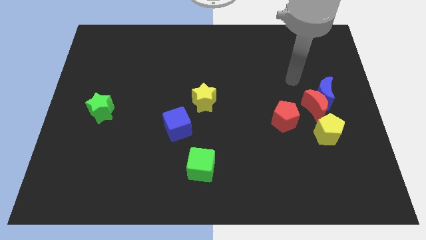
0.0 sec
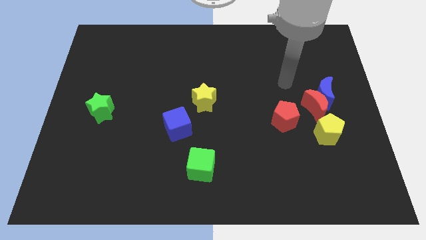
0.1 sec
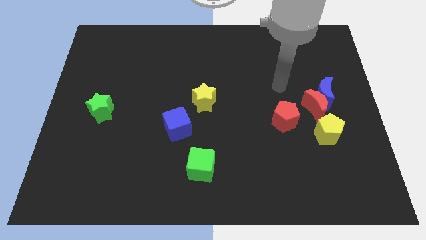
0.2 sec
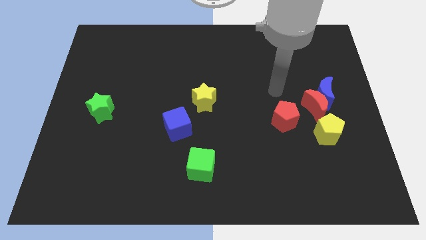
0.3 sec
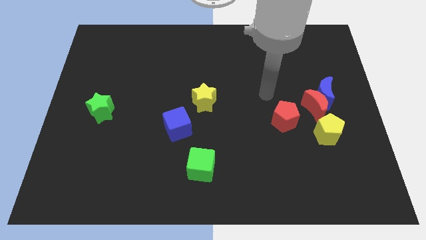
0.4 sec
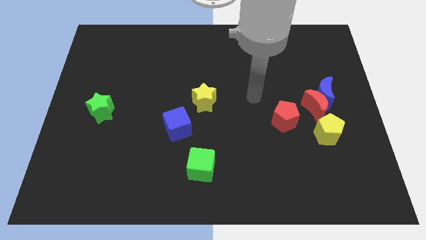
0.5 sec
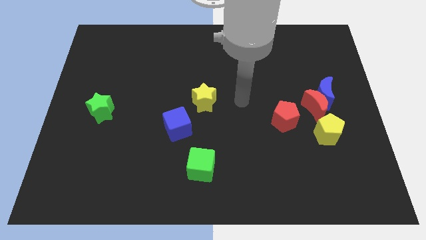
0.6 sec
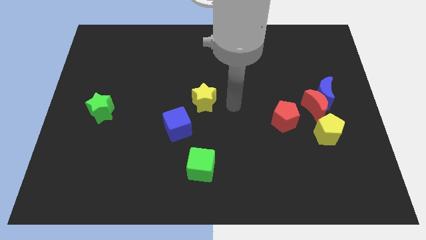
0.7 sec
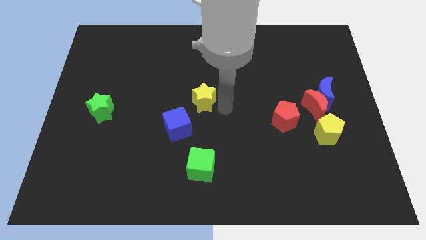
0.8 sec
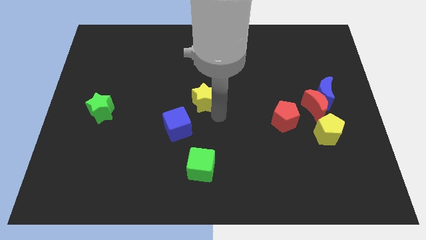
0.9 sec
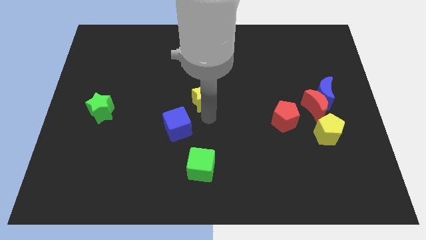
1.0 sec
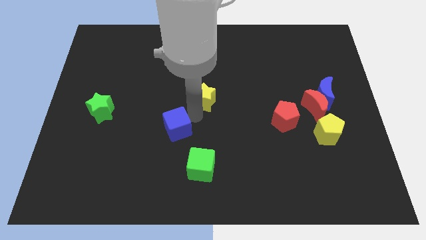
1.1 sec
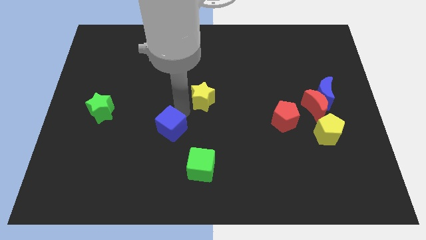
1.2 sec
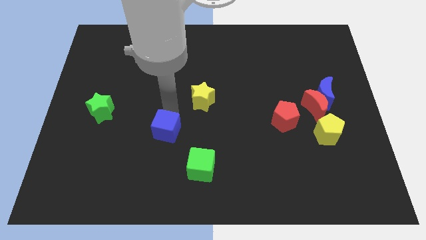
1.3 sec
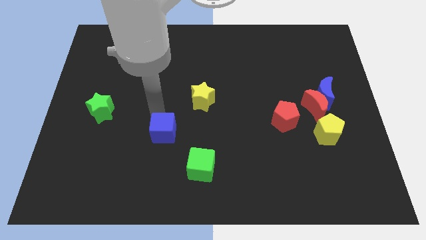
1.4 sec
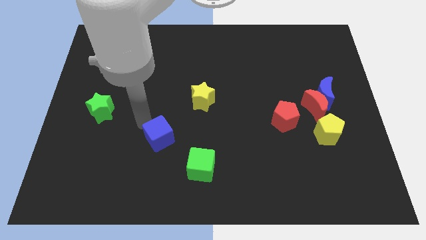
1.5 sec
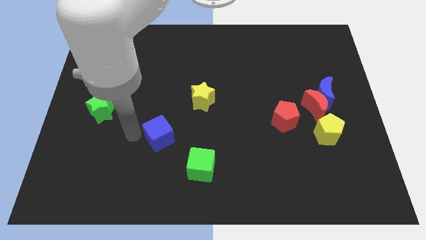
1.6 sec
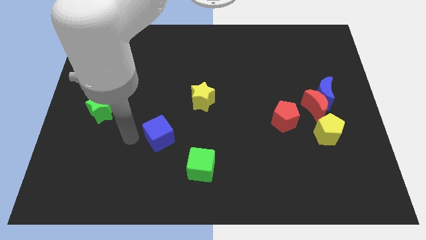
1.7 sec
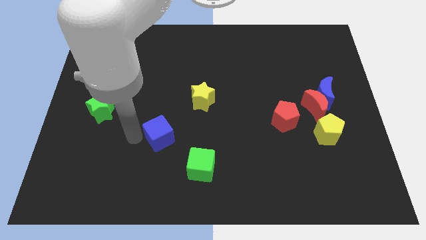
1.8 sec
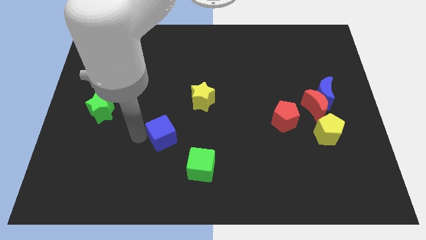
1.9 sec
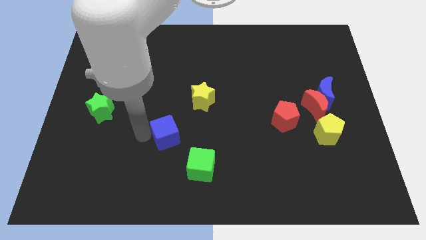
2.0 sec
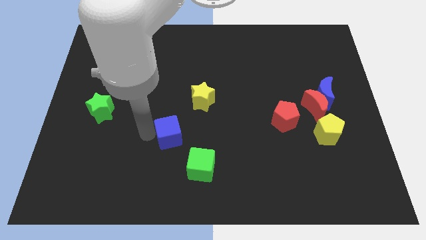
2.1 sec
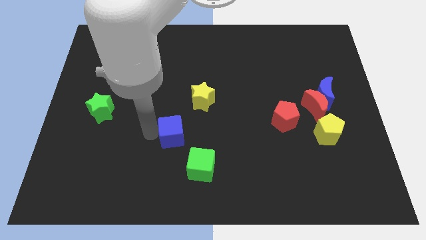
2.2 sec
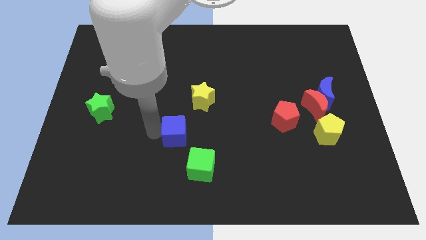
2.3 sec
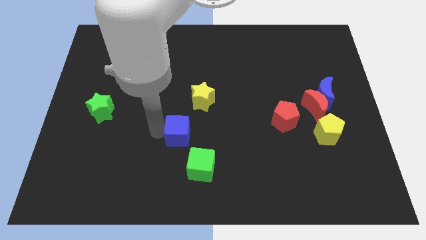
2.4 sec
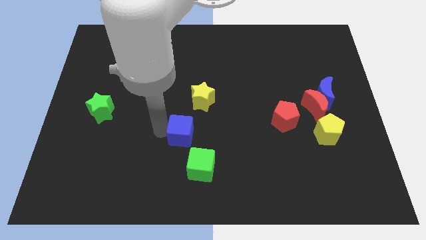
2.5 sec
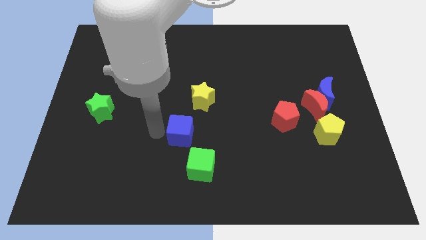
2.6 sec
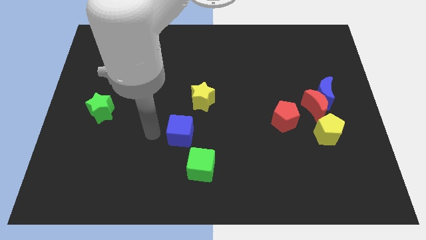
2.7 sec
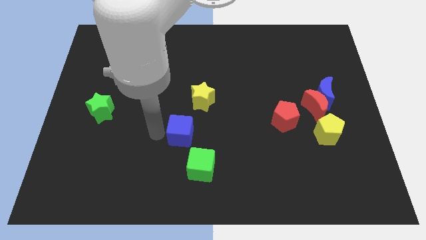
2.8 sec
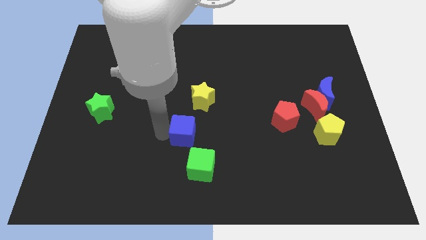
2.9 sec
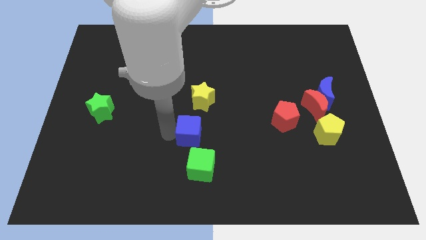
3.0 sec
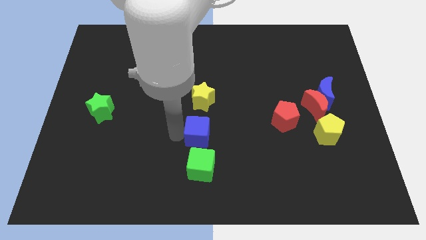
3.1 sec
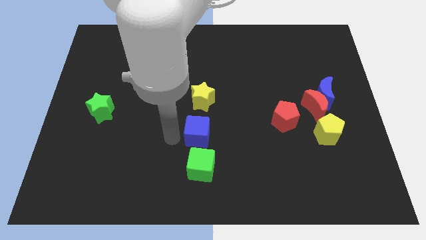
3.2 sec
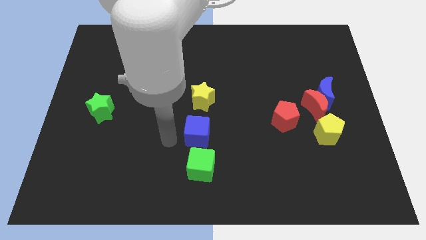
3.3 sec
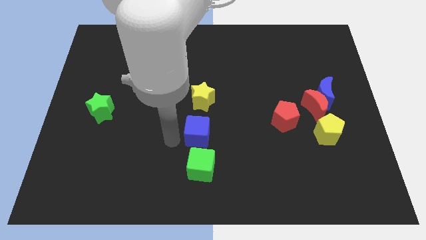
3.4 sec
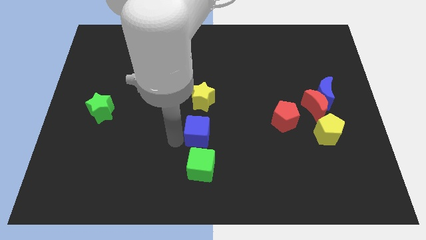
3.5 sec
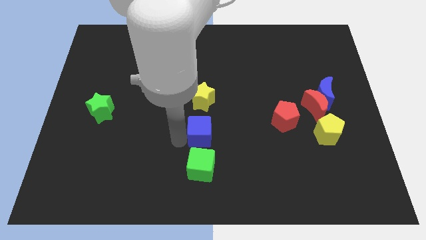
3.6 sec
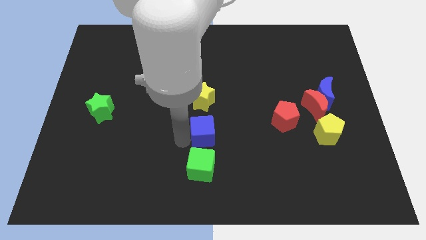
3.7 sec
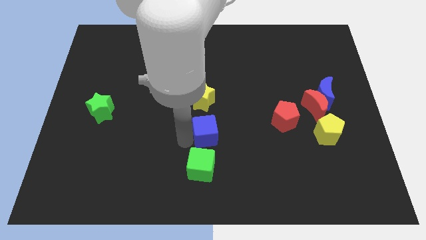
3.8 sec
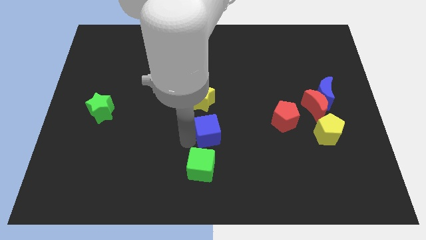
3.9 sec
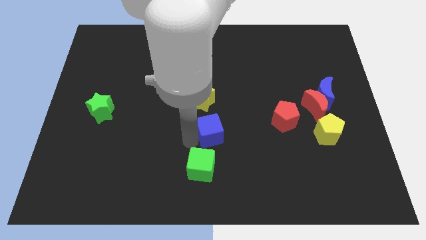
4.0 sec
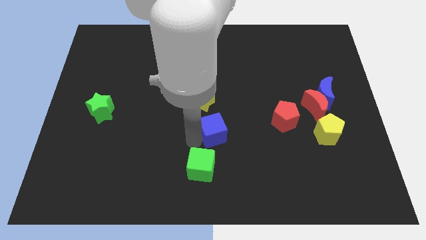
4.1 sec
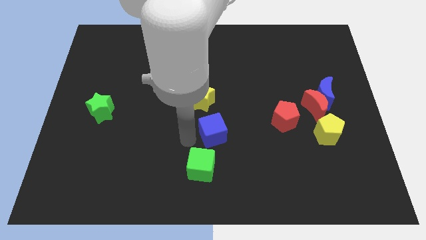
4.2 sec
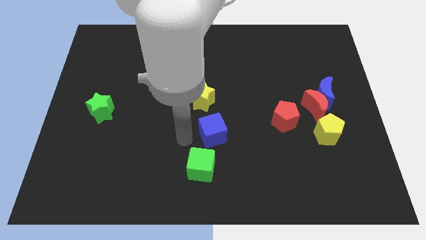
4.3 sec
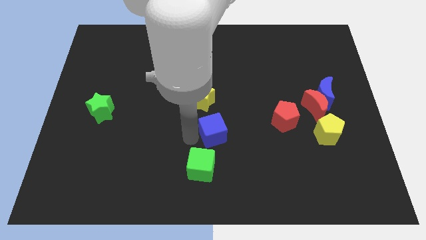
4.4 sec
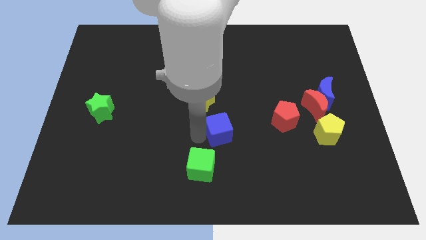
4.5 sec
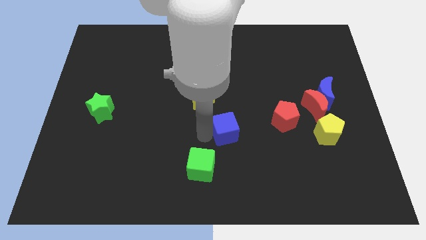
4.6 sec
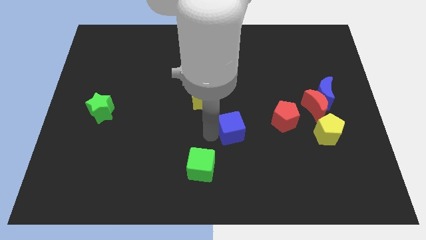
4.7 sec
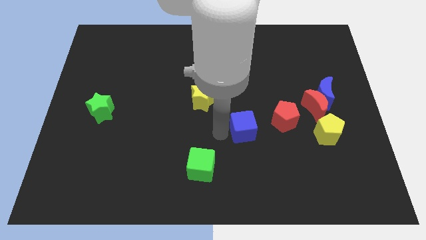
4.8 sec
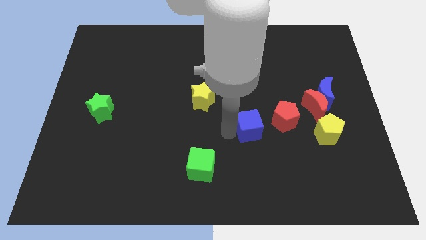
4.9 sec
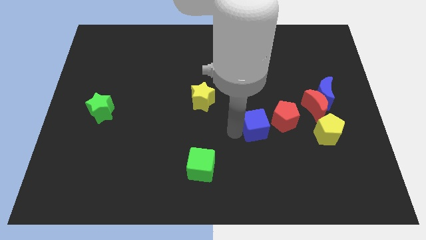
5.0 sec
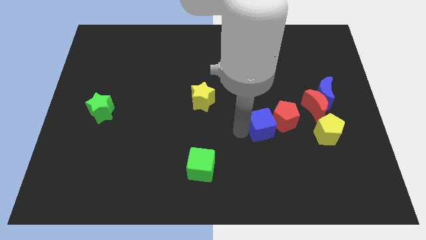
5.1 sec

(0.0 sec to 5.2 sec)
put the blue cube next to the red pentagon

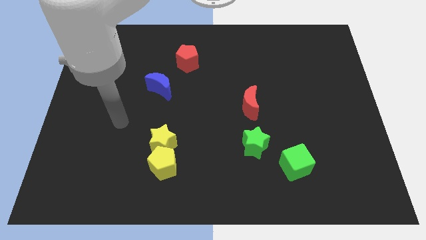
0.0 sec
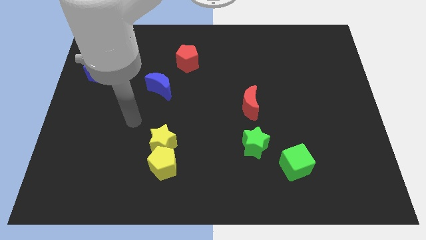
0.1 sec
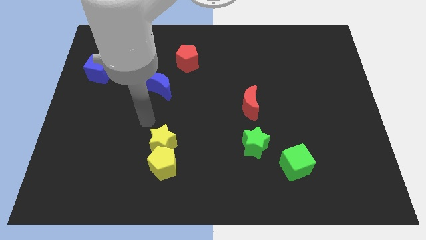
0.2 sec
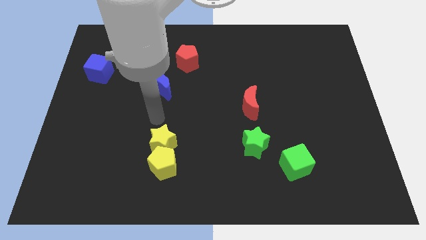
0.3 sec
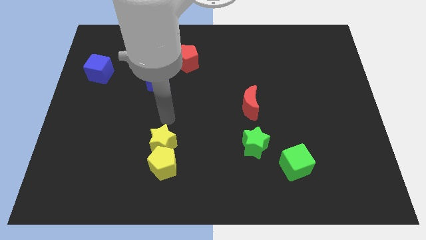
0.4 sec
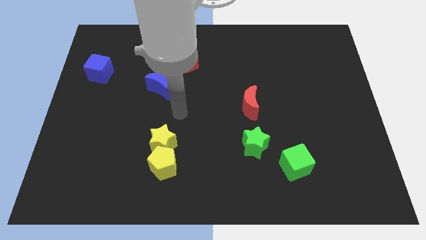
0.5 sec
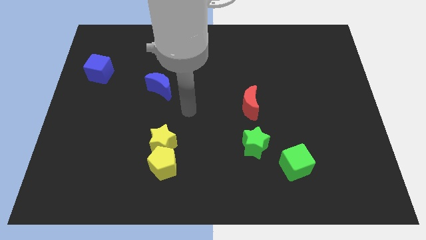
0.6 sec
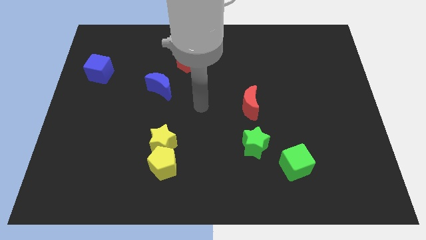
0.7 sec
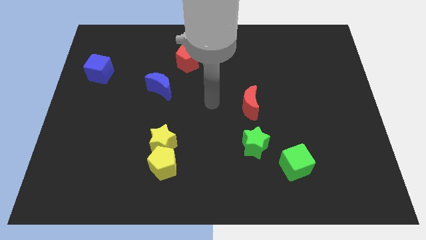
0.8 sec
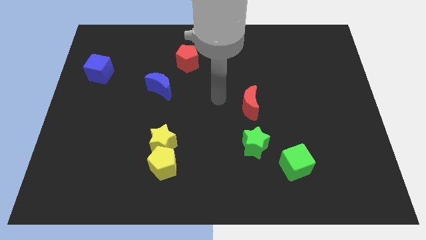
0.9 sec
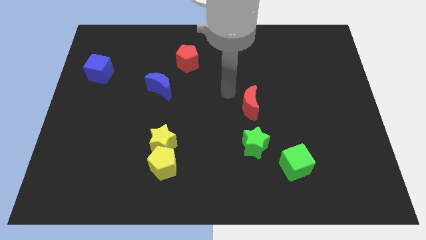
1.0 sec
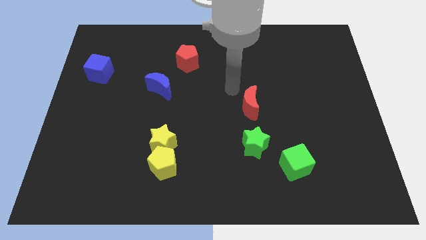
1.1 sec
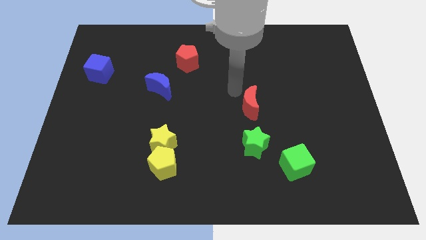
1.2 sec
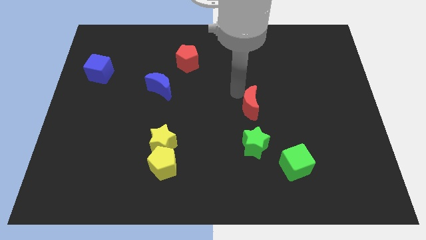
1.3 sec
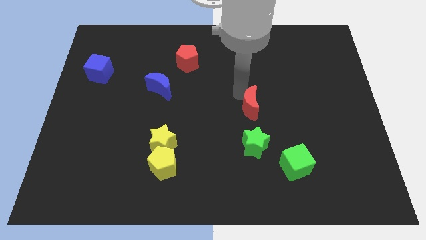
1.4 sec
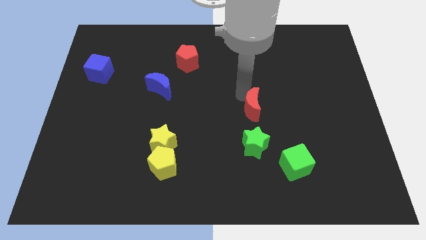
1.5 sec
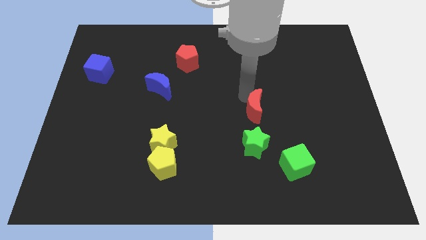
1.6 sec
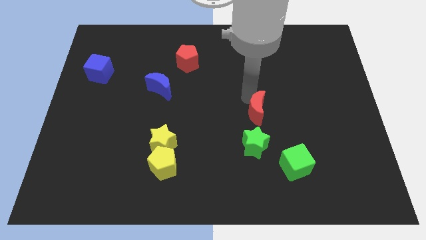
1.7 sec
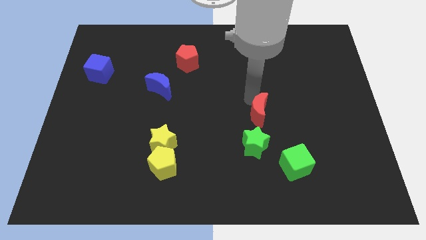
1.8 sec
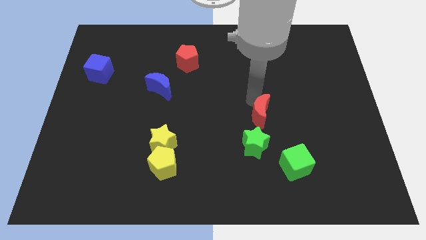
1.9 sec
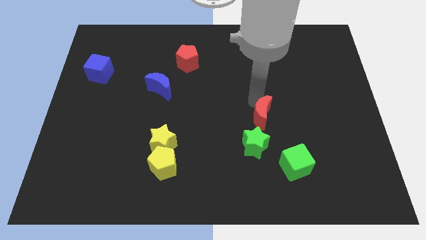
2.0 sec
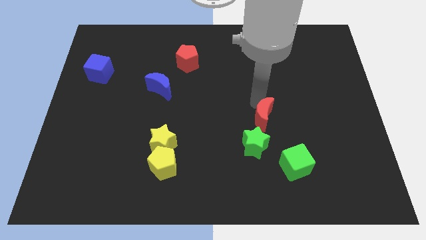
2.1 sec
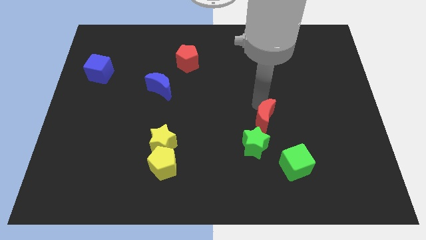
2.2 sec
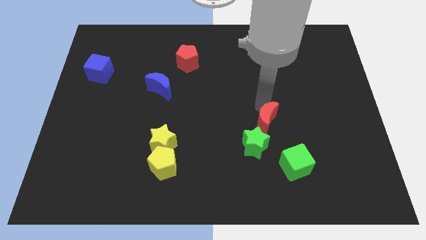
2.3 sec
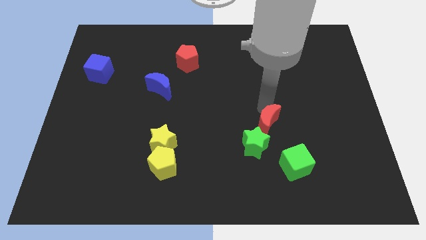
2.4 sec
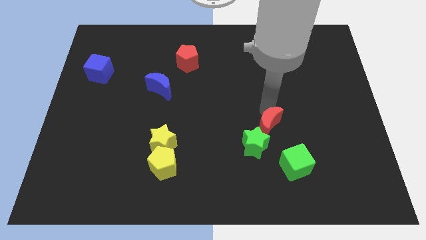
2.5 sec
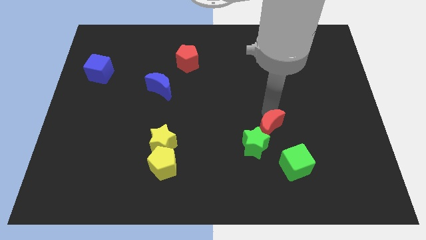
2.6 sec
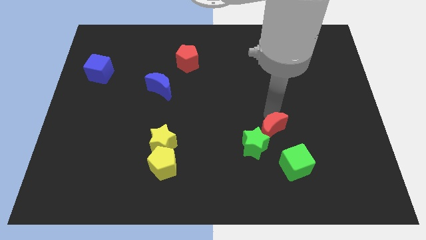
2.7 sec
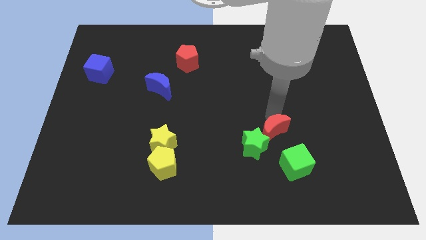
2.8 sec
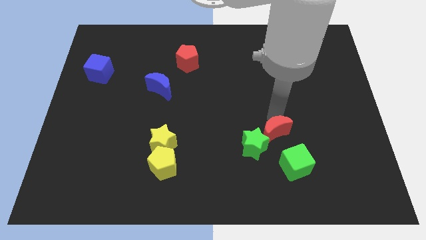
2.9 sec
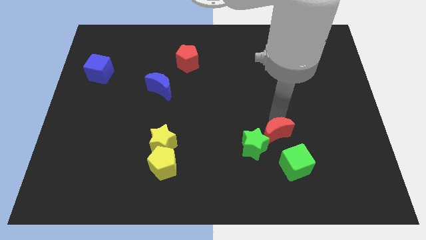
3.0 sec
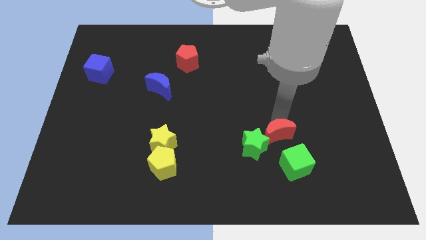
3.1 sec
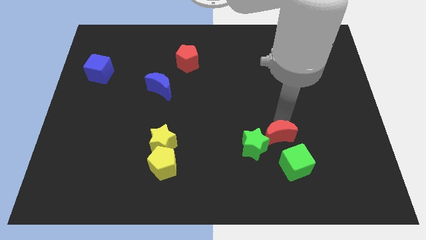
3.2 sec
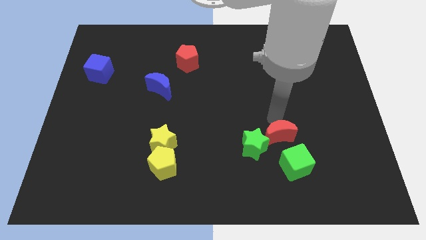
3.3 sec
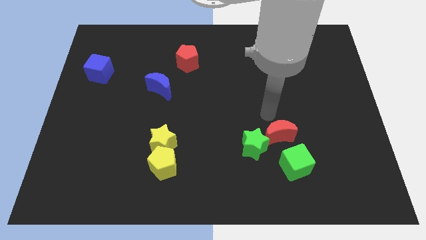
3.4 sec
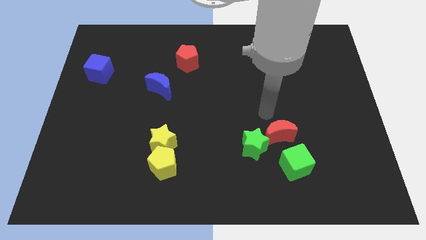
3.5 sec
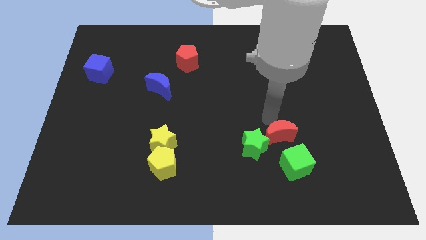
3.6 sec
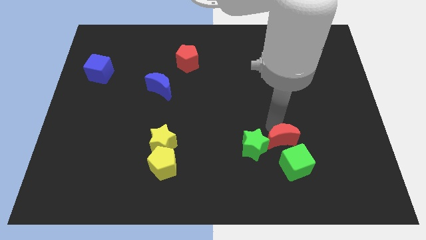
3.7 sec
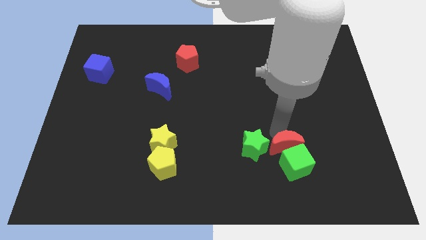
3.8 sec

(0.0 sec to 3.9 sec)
move the red moon close to the green cube
